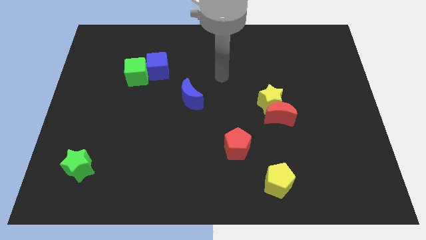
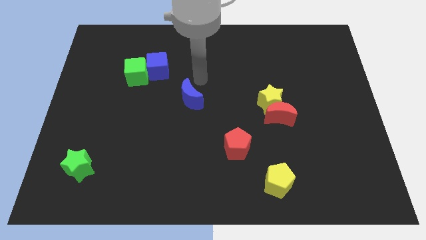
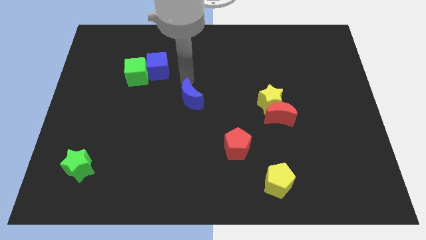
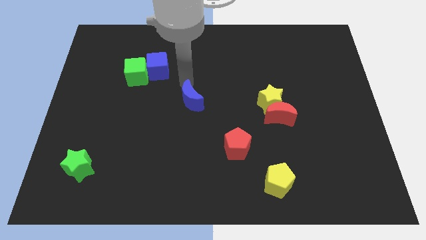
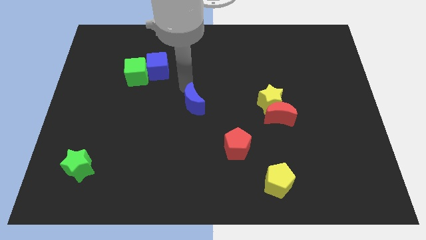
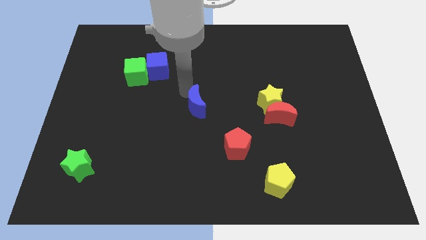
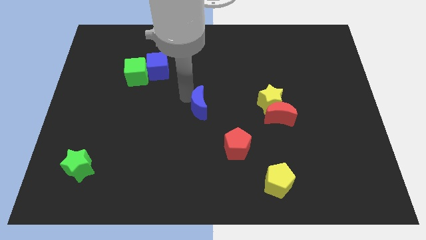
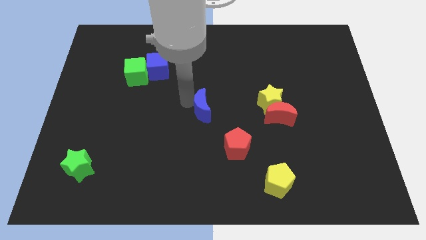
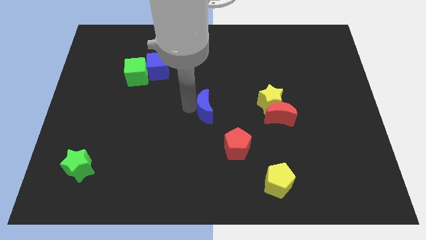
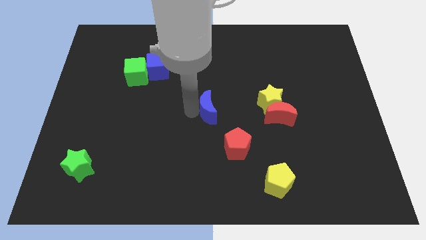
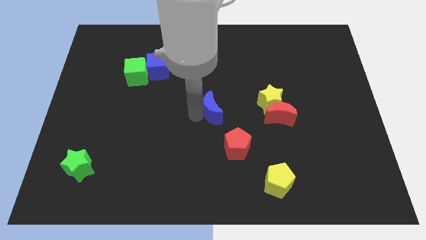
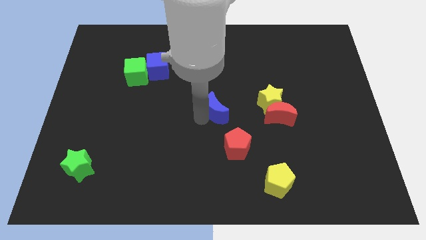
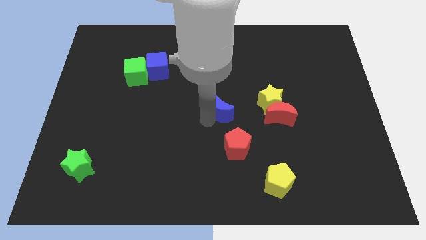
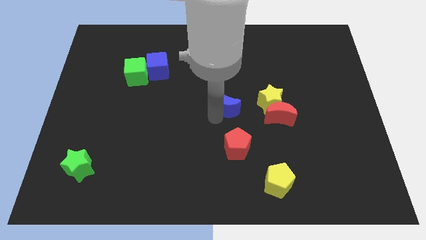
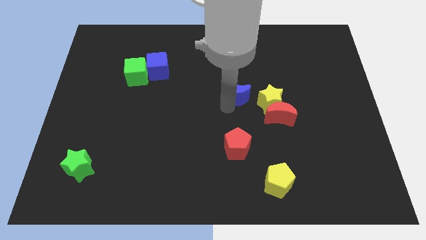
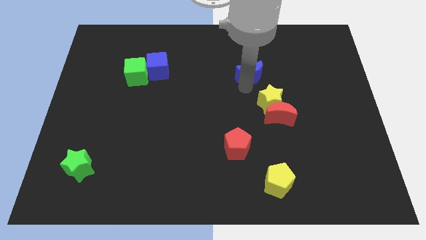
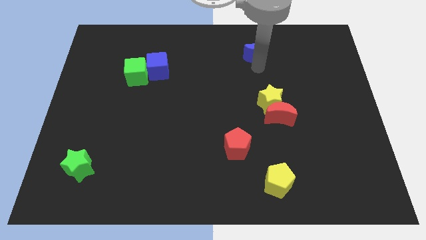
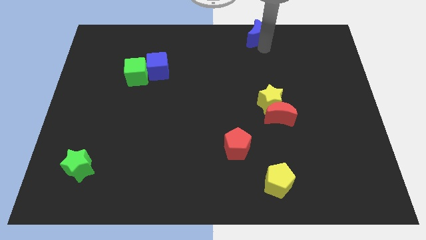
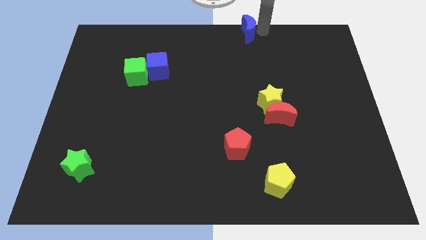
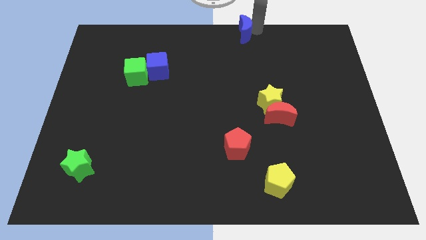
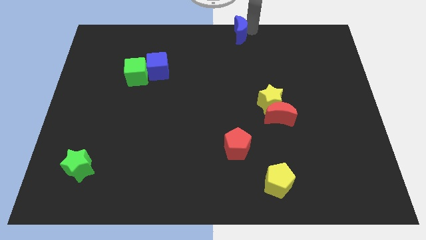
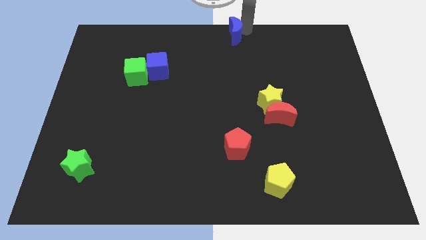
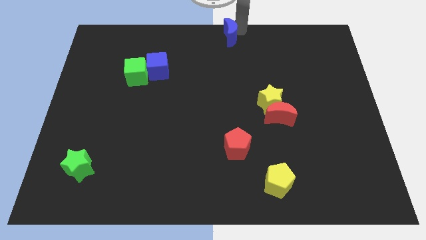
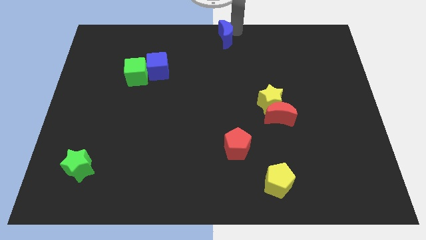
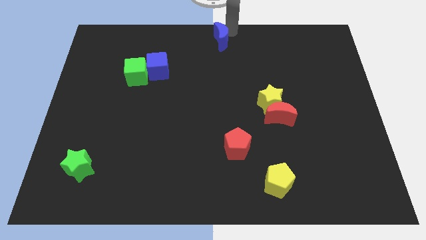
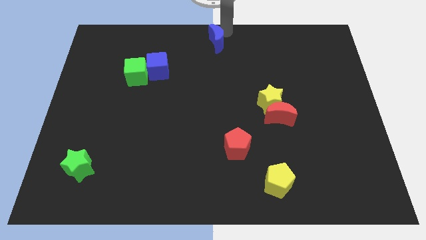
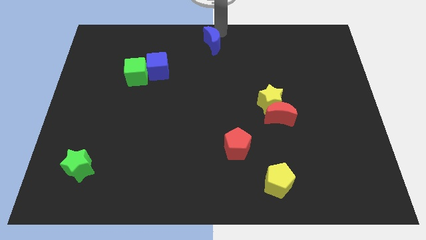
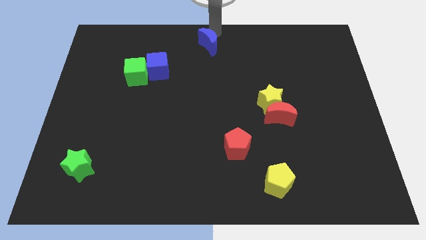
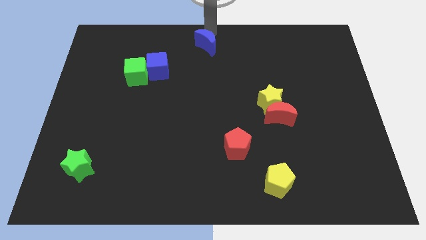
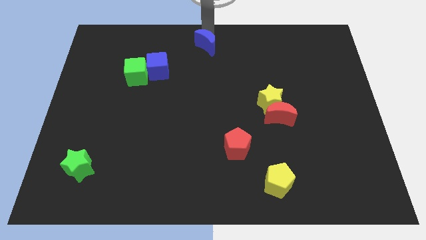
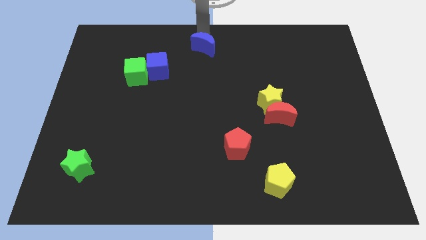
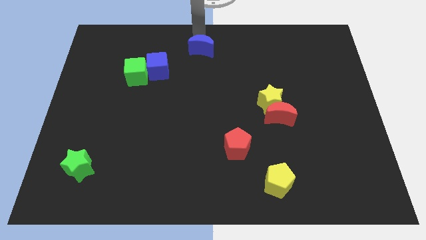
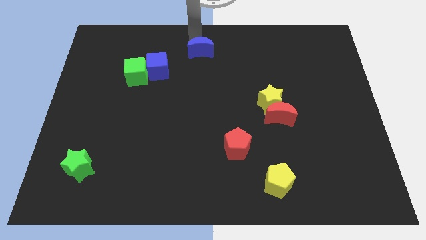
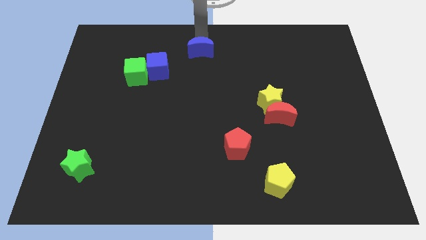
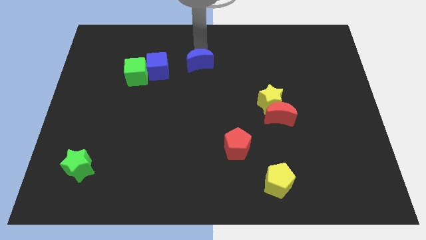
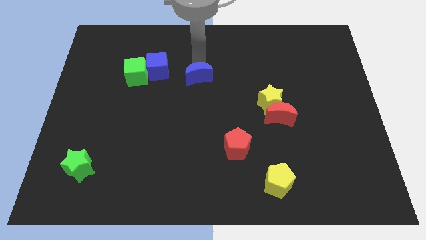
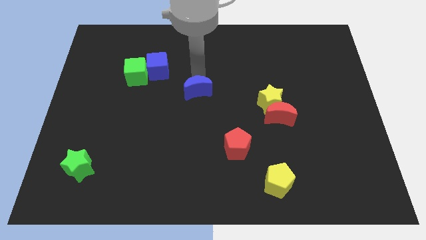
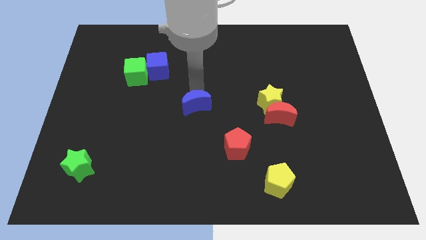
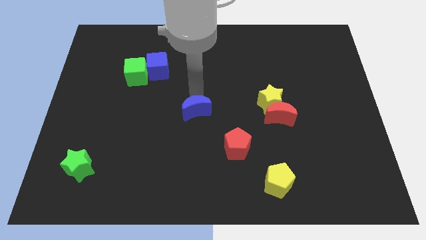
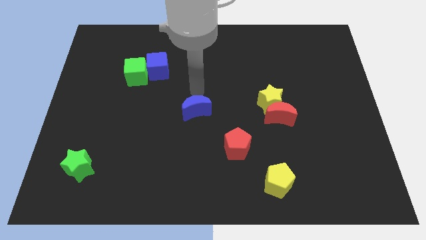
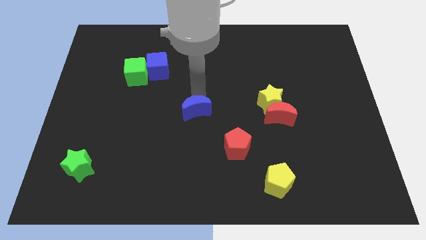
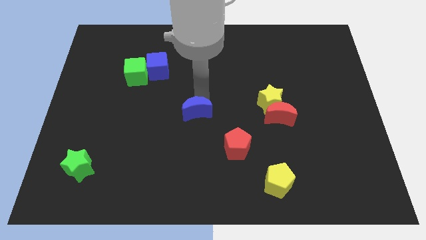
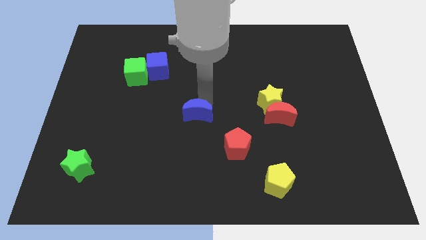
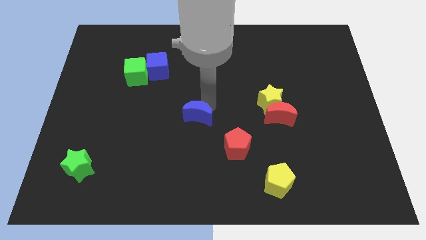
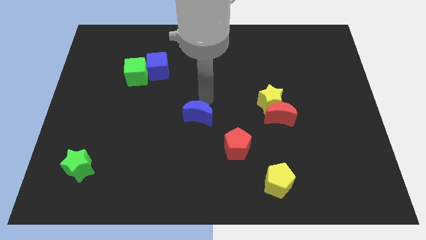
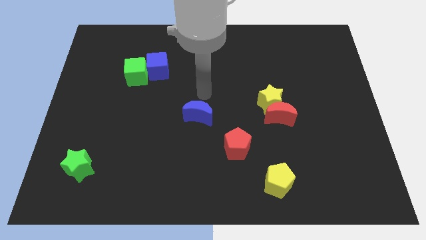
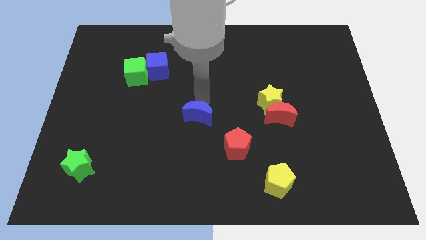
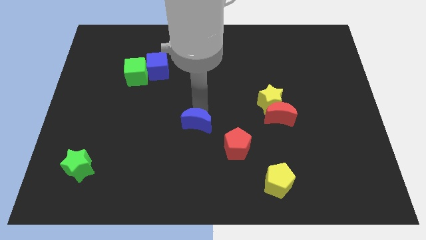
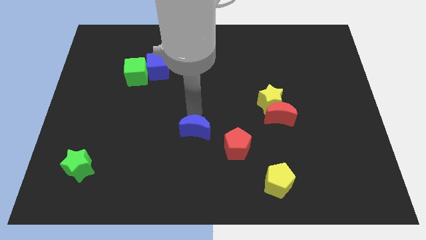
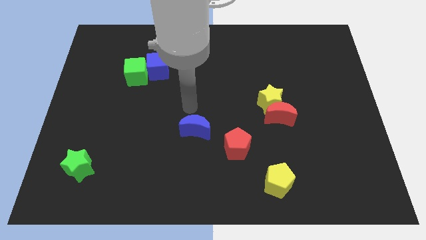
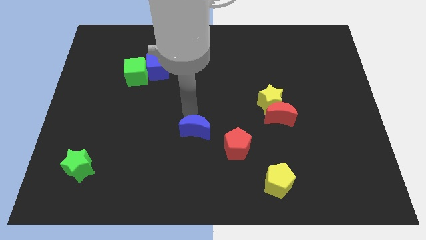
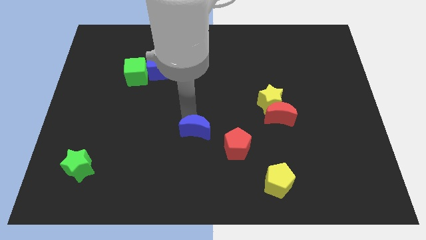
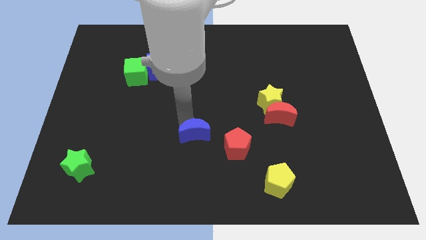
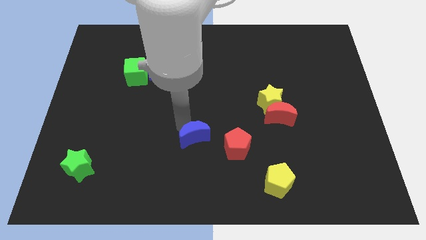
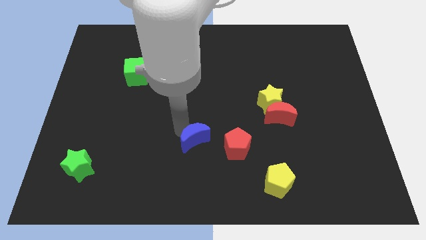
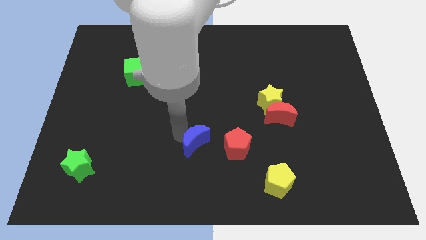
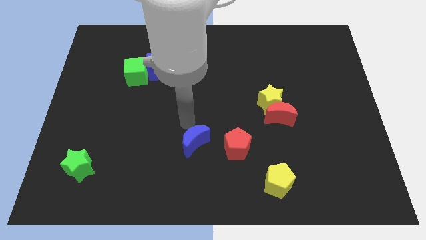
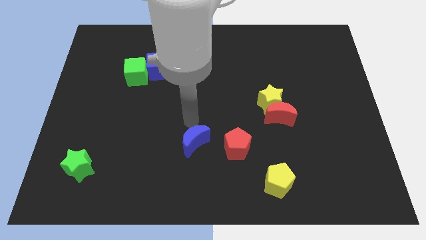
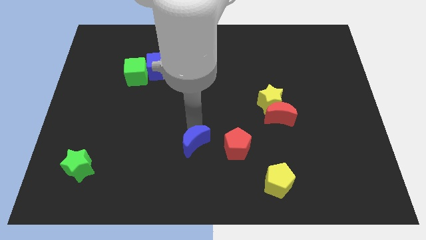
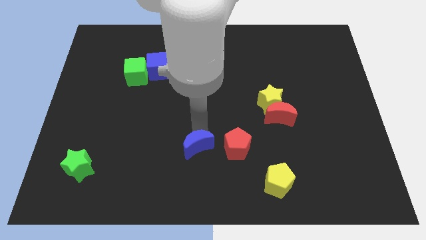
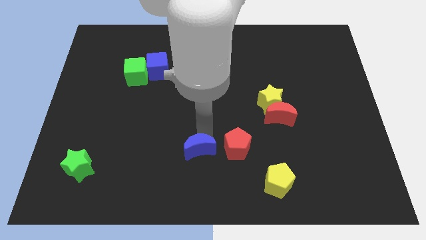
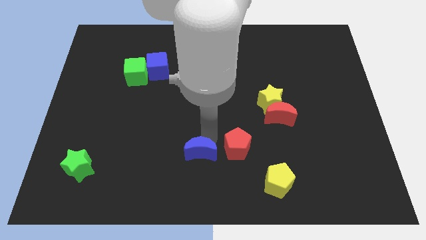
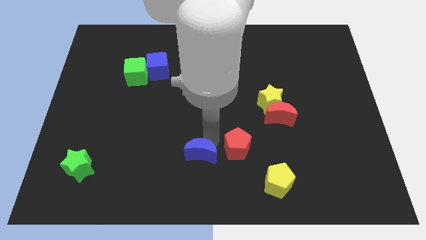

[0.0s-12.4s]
put the blue moon to the bottom side
